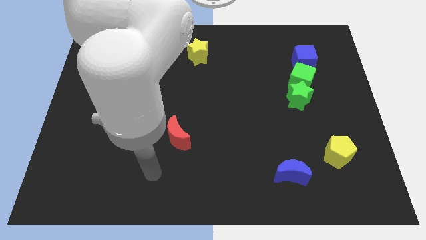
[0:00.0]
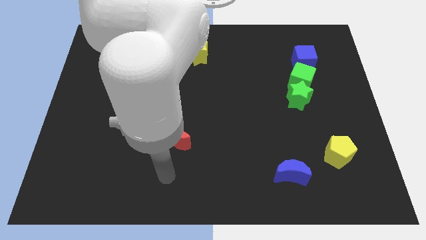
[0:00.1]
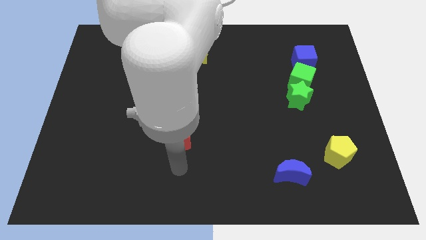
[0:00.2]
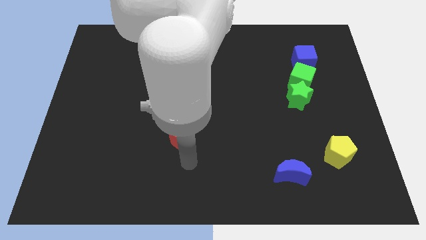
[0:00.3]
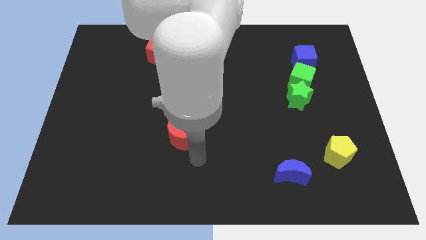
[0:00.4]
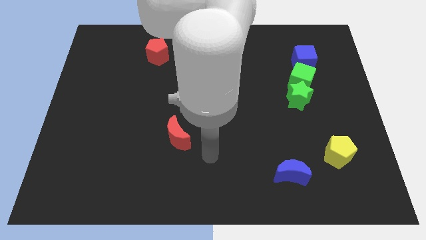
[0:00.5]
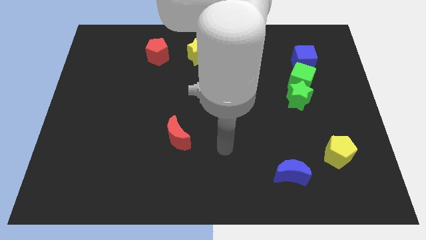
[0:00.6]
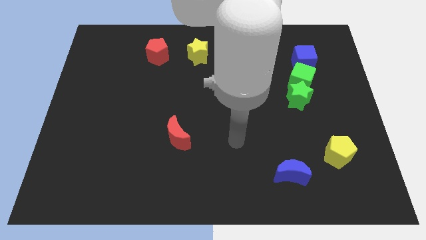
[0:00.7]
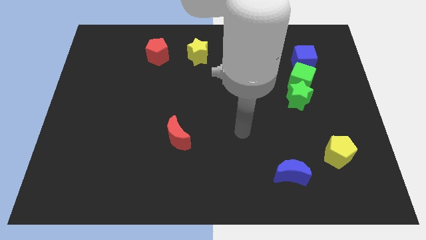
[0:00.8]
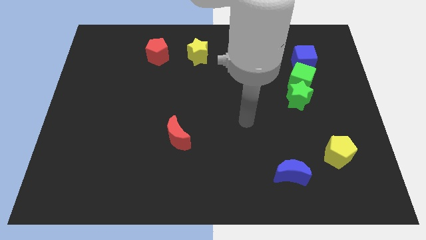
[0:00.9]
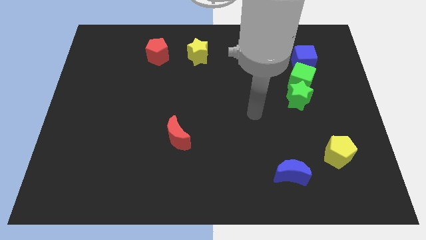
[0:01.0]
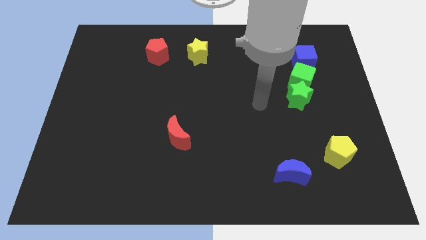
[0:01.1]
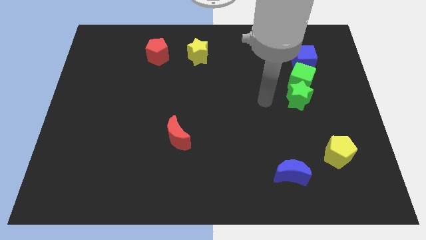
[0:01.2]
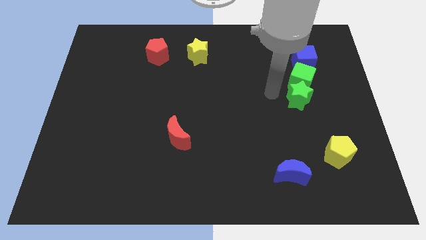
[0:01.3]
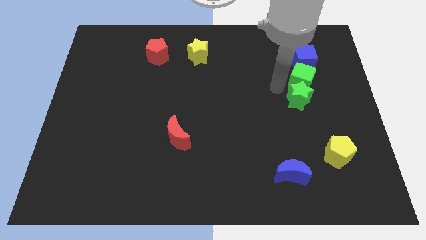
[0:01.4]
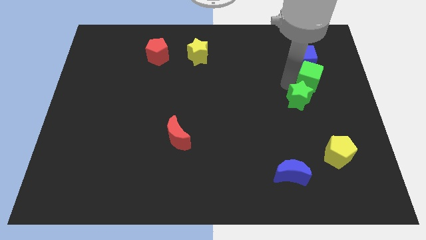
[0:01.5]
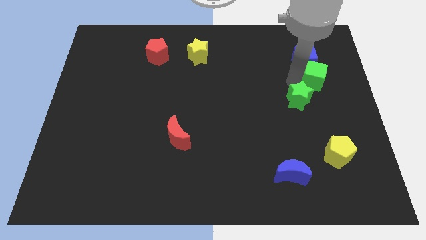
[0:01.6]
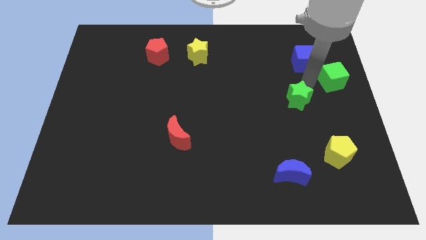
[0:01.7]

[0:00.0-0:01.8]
separate the green star from the green cube

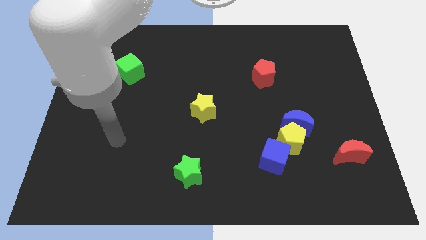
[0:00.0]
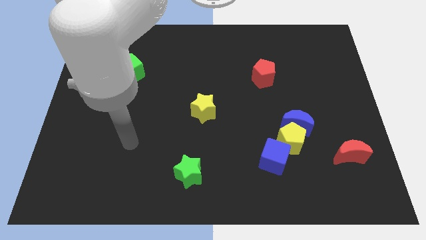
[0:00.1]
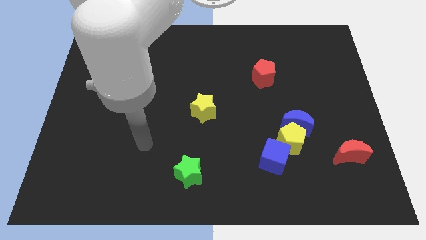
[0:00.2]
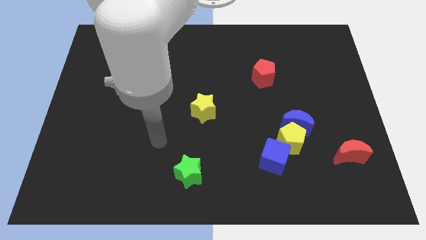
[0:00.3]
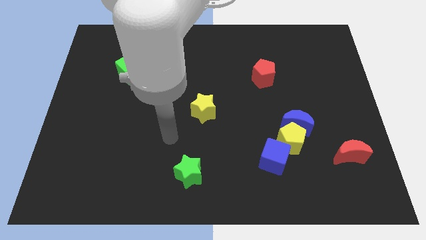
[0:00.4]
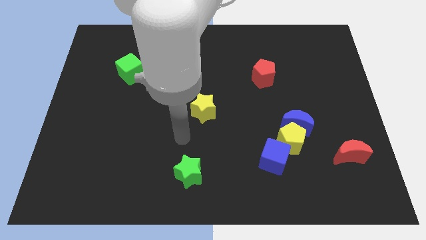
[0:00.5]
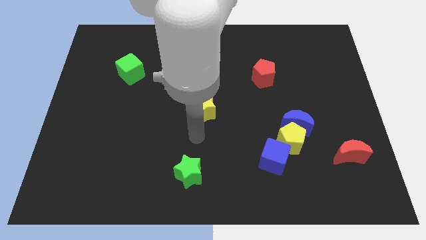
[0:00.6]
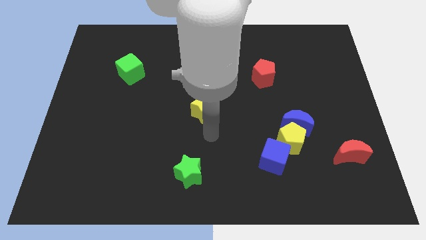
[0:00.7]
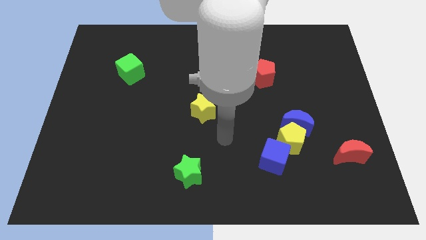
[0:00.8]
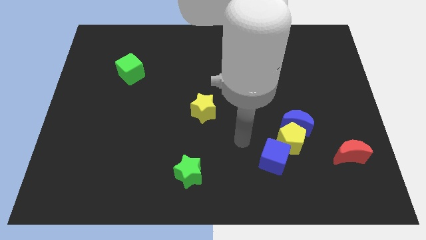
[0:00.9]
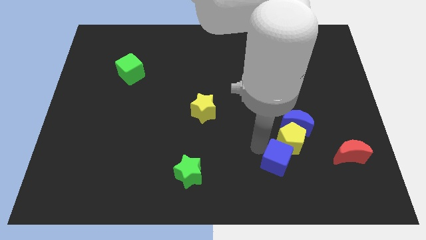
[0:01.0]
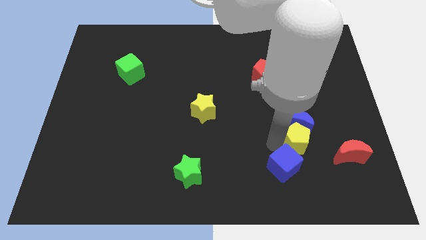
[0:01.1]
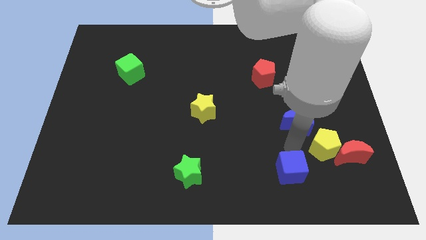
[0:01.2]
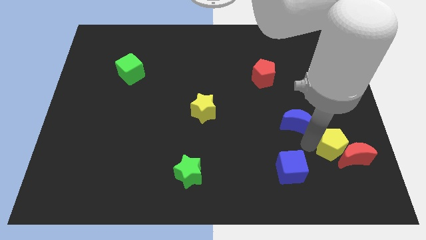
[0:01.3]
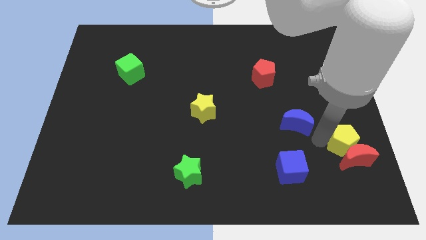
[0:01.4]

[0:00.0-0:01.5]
pull the blue moon apart from the yellow pentagon

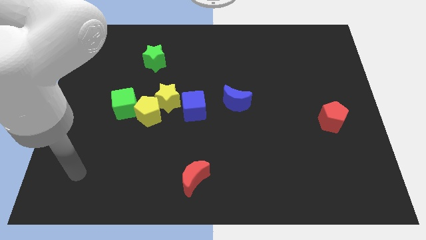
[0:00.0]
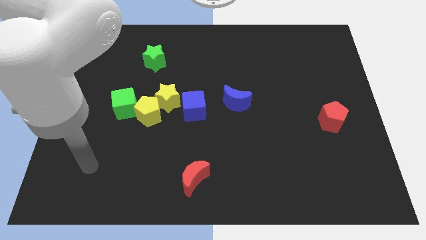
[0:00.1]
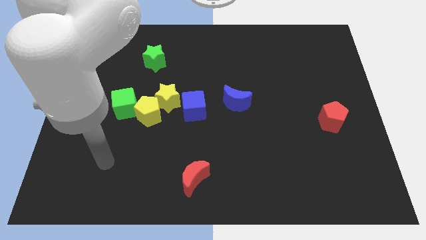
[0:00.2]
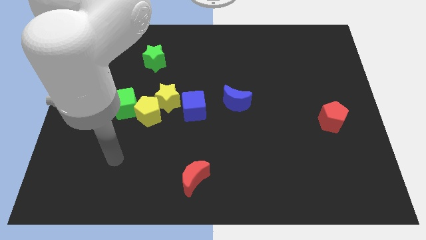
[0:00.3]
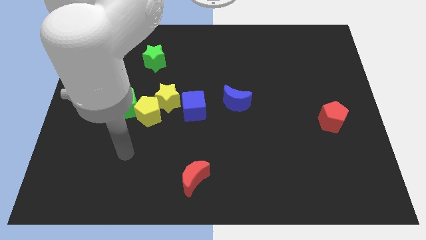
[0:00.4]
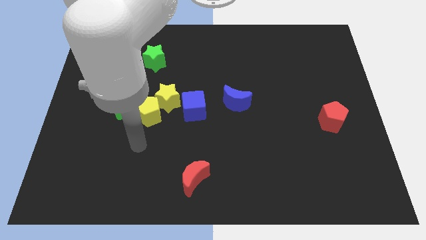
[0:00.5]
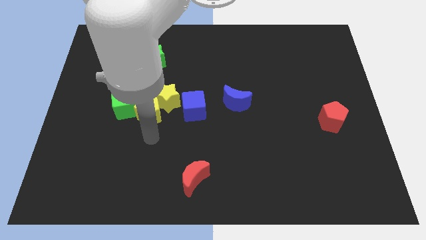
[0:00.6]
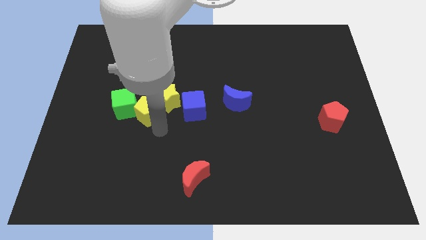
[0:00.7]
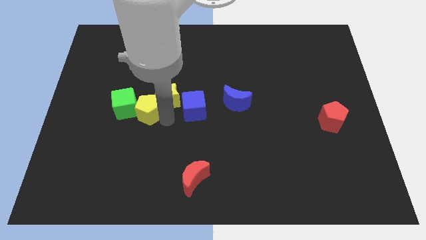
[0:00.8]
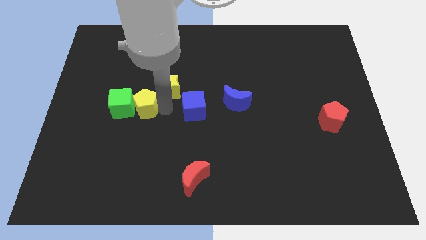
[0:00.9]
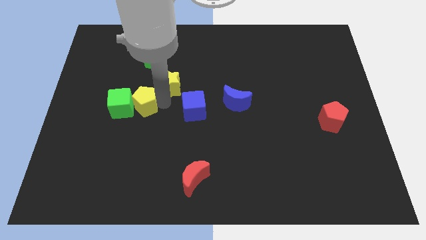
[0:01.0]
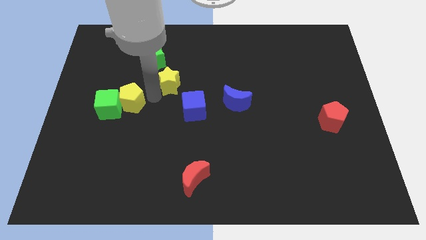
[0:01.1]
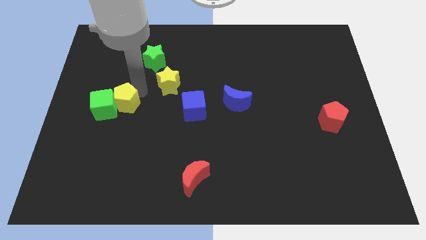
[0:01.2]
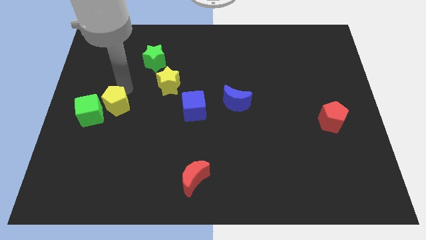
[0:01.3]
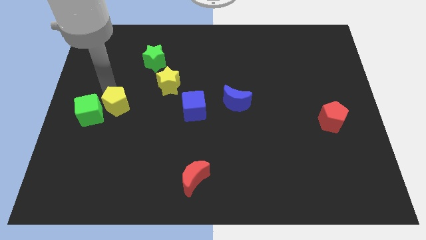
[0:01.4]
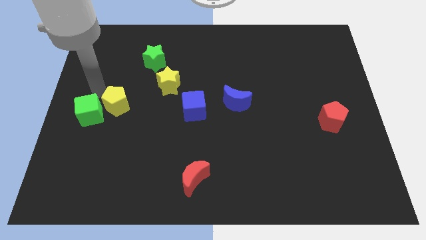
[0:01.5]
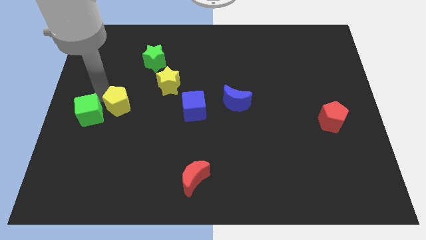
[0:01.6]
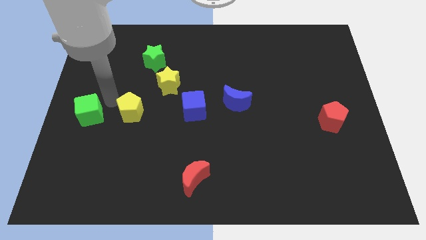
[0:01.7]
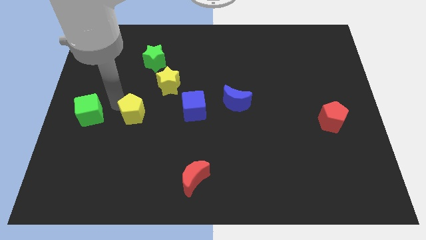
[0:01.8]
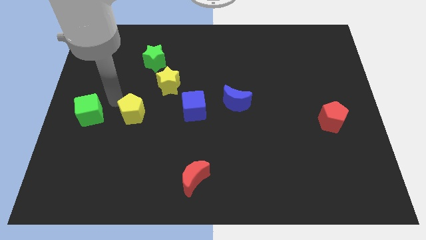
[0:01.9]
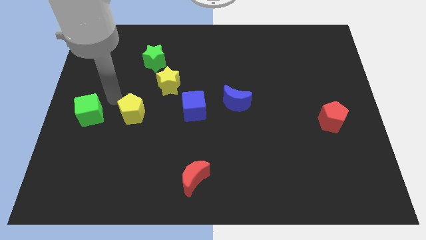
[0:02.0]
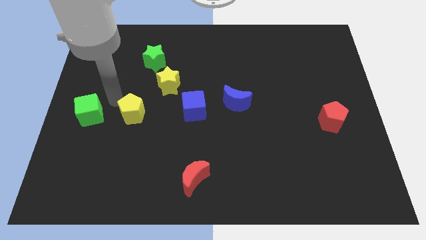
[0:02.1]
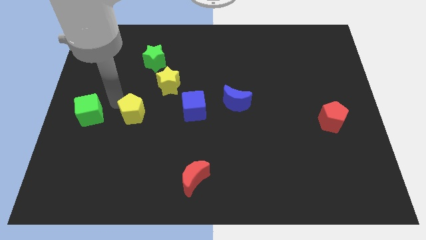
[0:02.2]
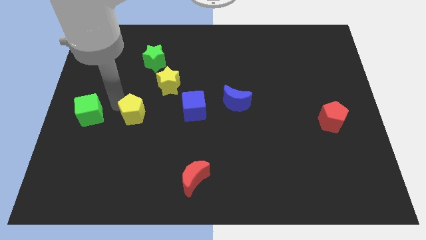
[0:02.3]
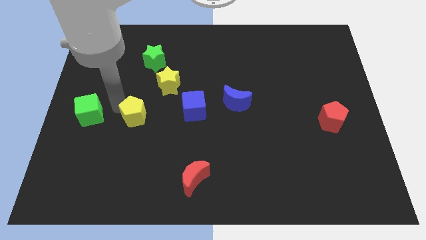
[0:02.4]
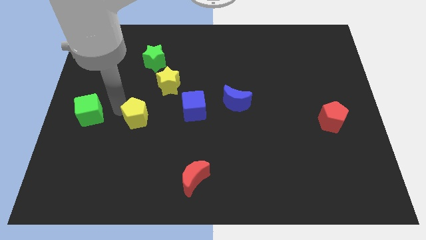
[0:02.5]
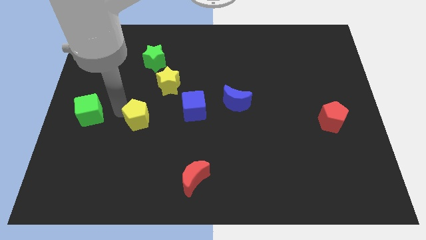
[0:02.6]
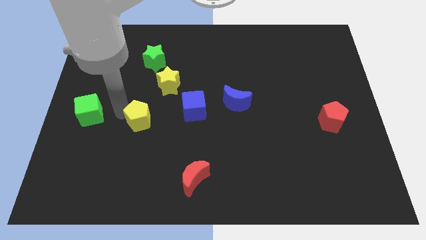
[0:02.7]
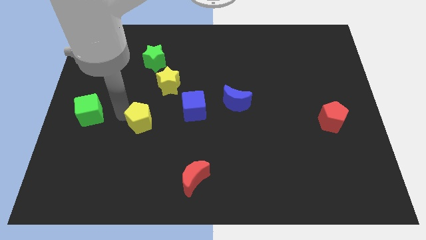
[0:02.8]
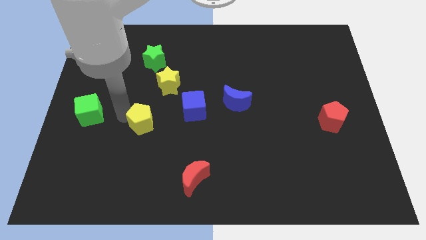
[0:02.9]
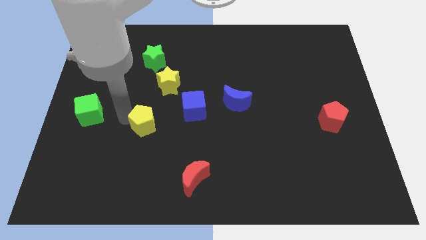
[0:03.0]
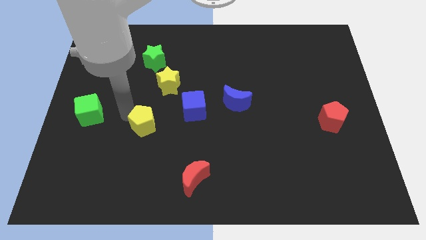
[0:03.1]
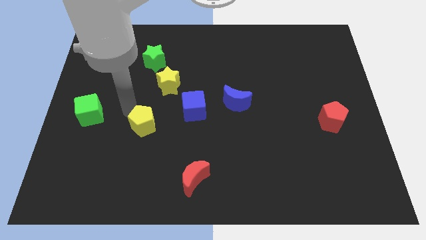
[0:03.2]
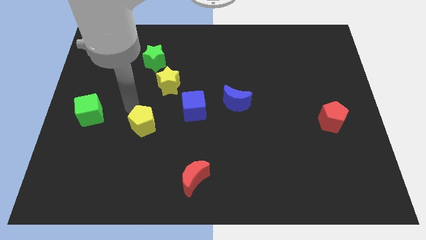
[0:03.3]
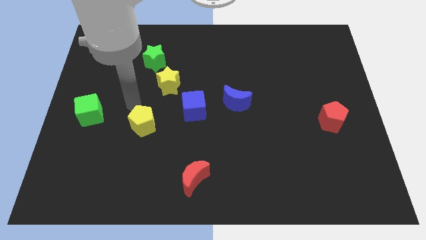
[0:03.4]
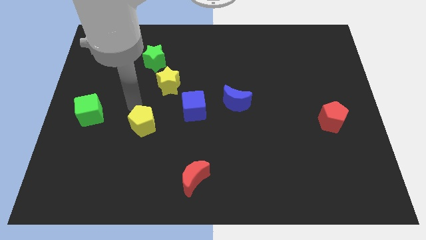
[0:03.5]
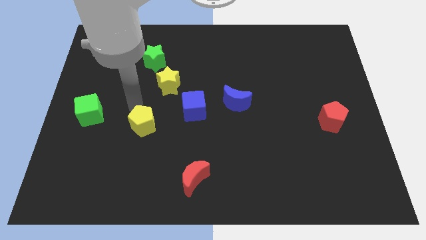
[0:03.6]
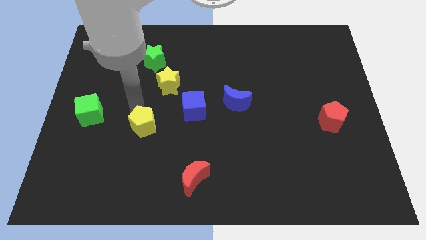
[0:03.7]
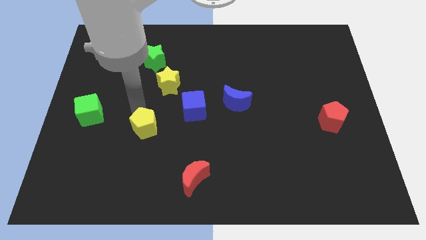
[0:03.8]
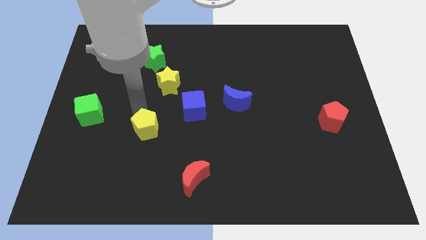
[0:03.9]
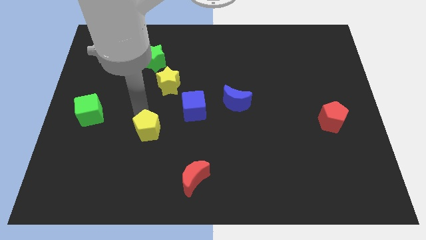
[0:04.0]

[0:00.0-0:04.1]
separate the yellow pentagon from the yellow star and green cube

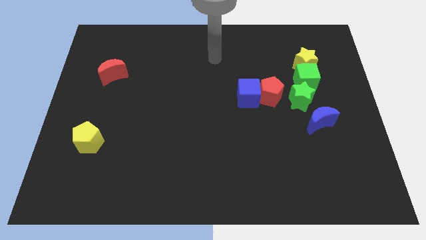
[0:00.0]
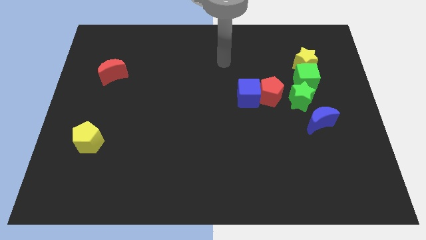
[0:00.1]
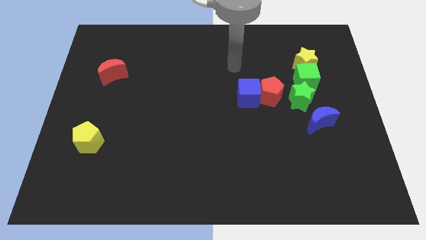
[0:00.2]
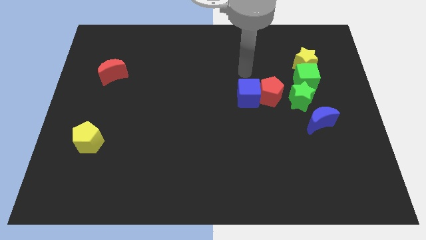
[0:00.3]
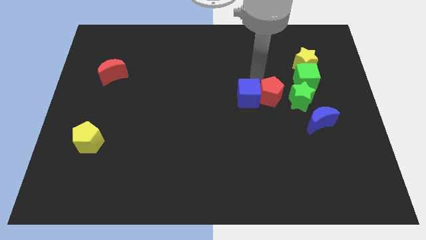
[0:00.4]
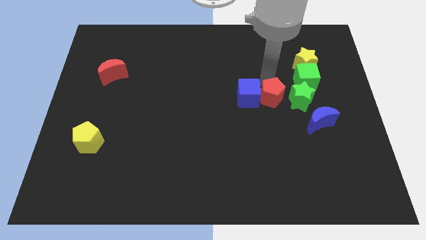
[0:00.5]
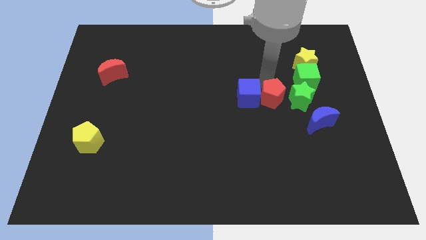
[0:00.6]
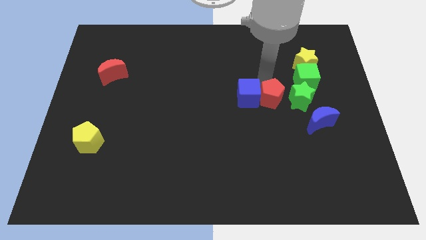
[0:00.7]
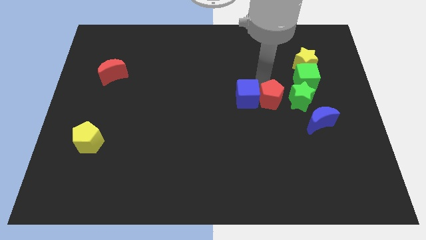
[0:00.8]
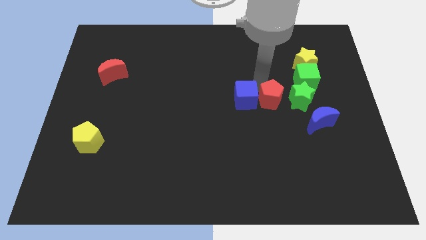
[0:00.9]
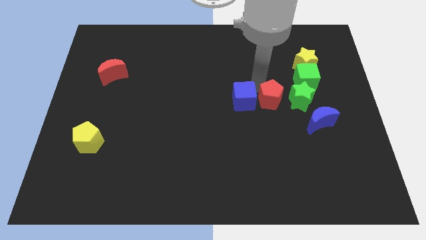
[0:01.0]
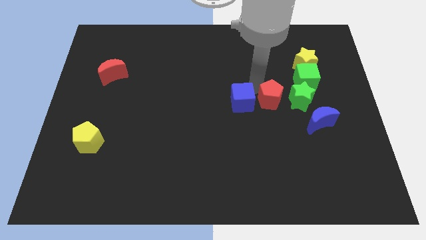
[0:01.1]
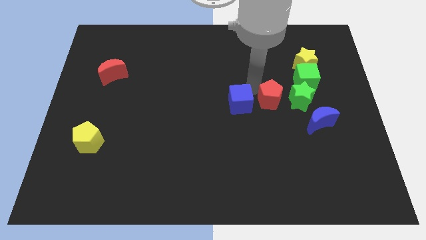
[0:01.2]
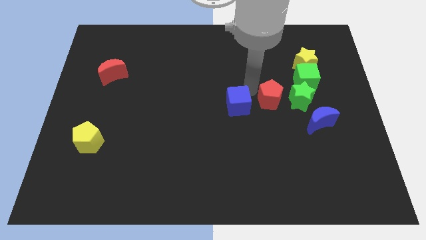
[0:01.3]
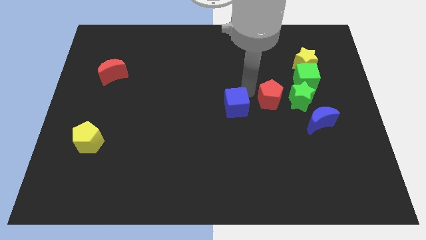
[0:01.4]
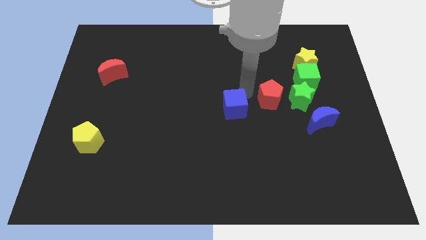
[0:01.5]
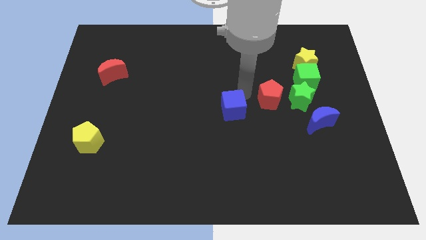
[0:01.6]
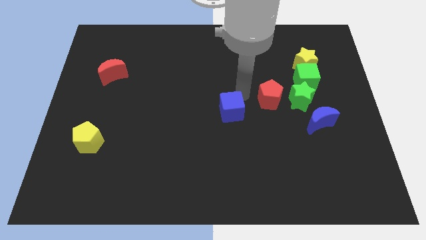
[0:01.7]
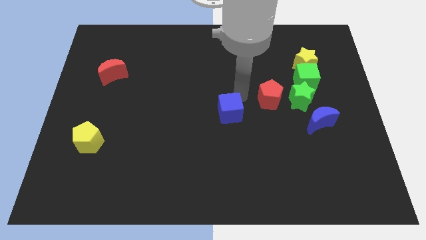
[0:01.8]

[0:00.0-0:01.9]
pull the blue cube apart from the red pentagon

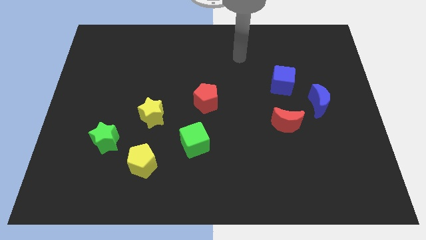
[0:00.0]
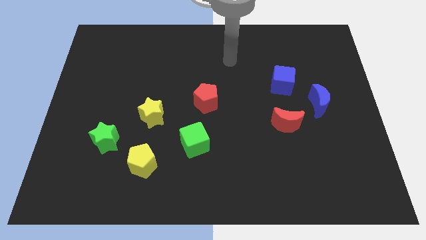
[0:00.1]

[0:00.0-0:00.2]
pull the green star apart from the yellow pentagon
